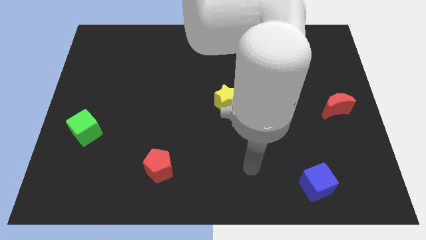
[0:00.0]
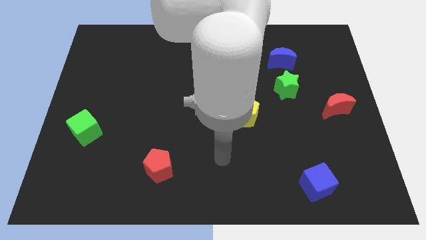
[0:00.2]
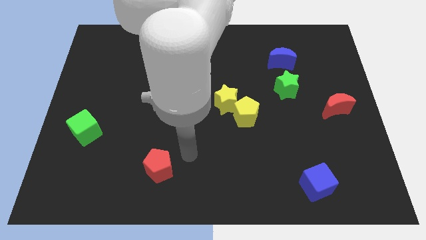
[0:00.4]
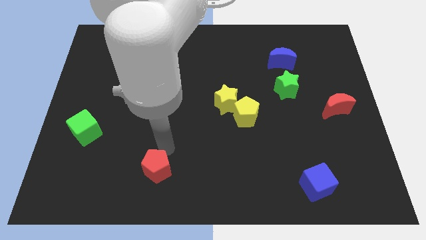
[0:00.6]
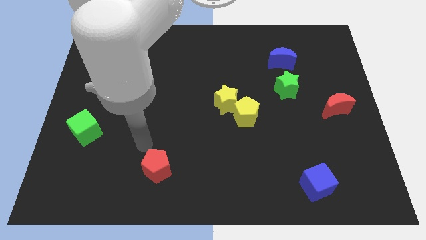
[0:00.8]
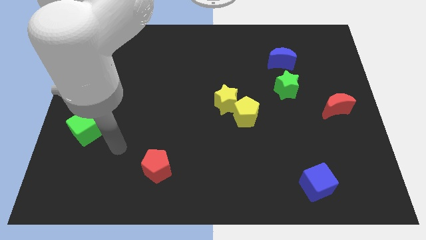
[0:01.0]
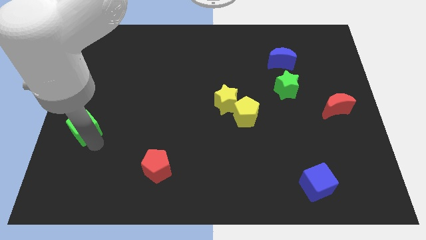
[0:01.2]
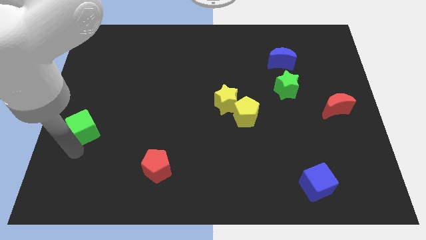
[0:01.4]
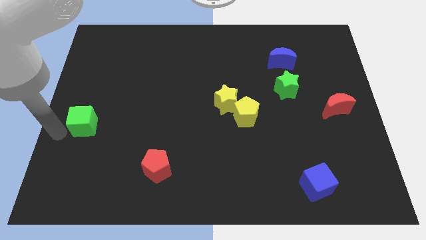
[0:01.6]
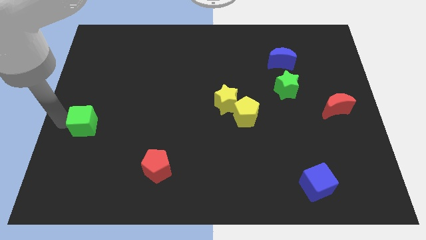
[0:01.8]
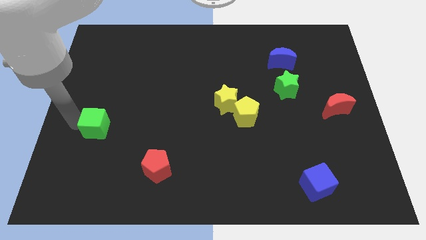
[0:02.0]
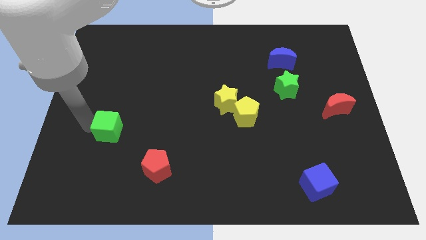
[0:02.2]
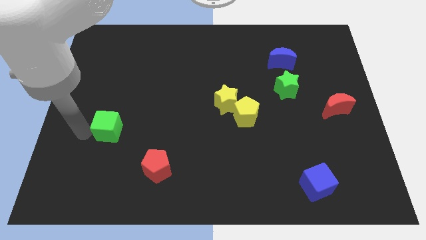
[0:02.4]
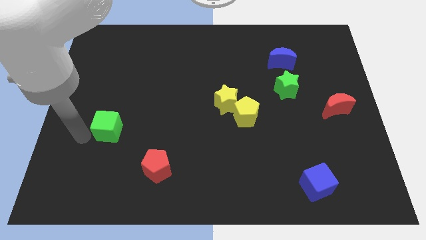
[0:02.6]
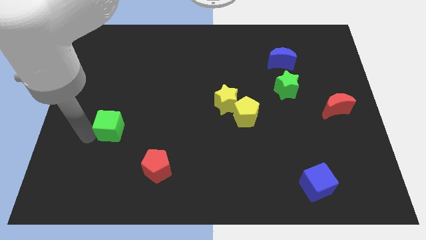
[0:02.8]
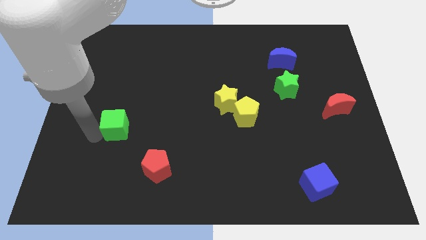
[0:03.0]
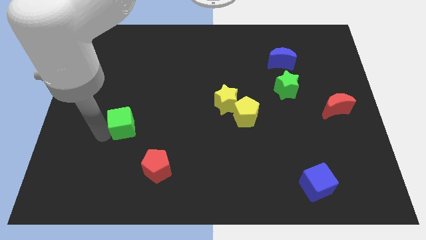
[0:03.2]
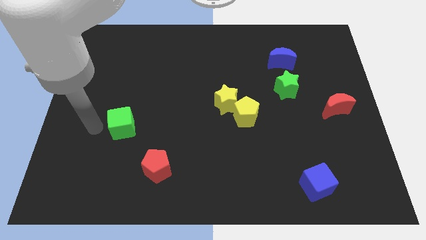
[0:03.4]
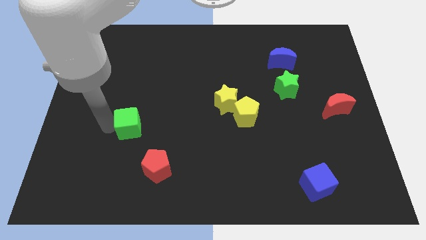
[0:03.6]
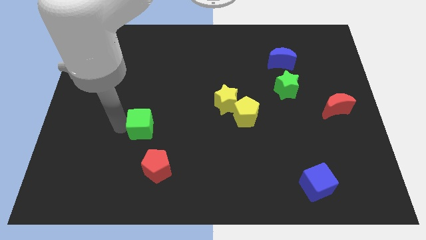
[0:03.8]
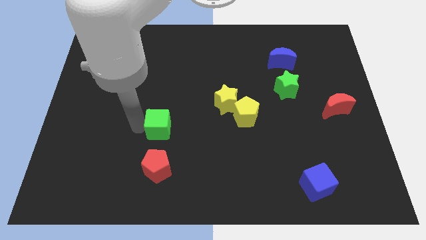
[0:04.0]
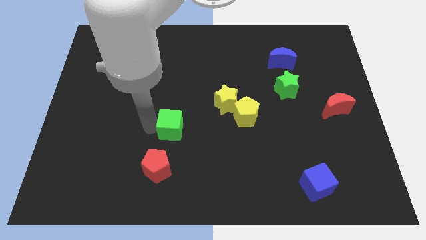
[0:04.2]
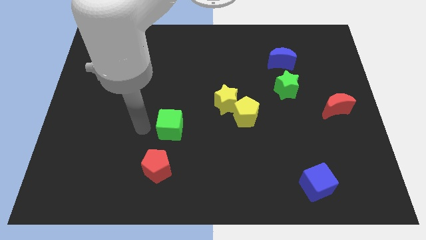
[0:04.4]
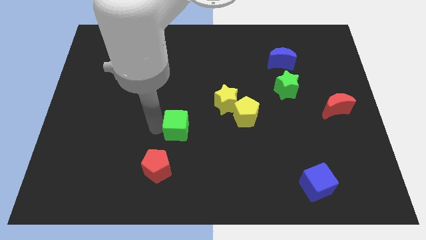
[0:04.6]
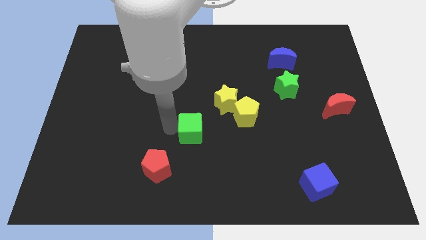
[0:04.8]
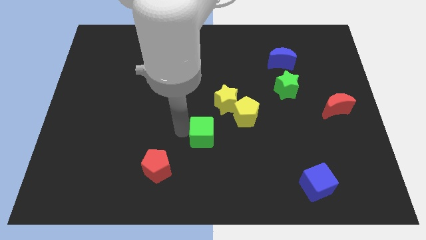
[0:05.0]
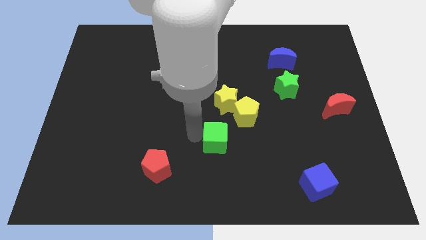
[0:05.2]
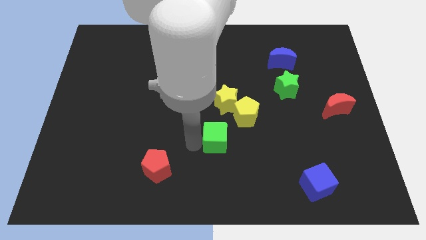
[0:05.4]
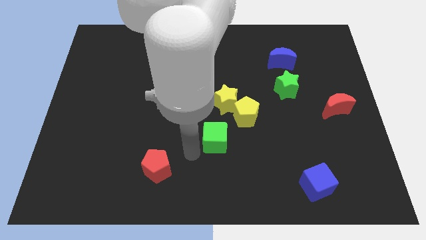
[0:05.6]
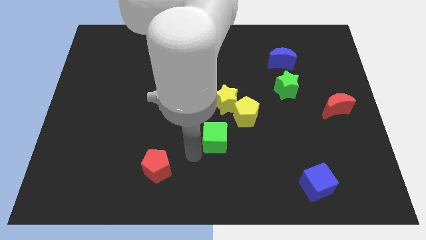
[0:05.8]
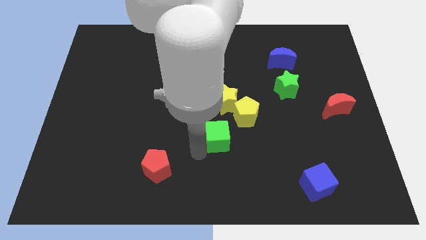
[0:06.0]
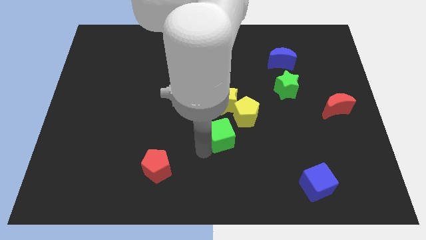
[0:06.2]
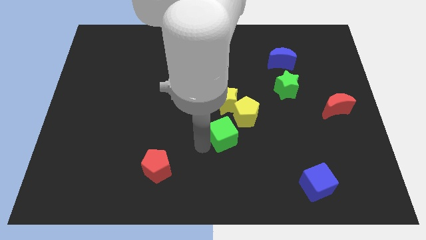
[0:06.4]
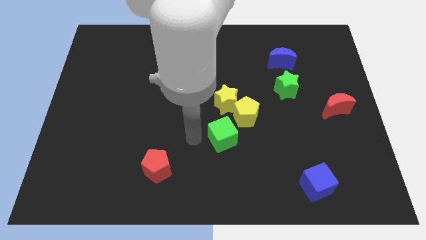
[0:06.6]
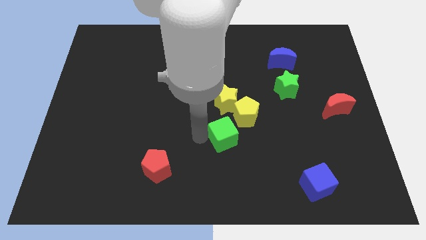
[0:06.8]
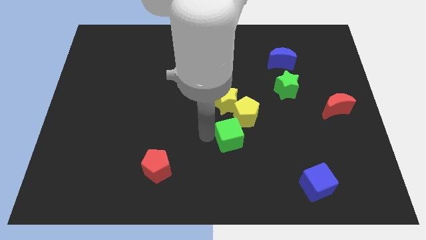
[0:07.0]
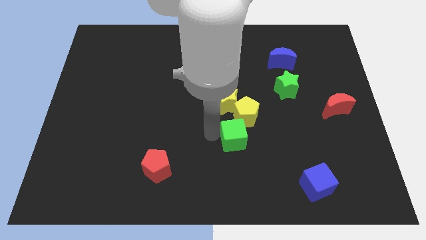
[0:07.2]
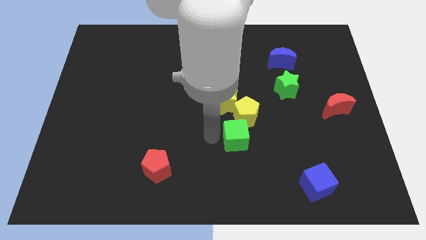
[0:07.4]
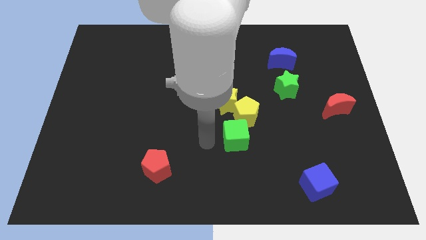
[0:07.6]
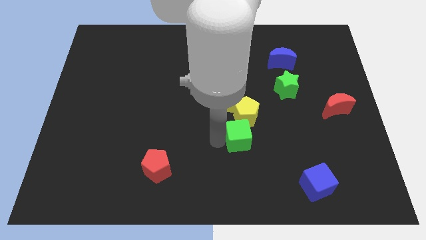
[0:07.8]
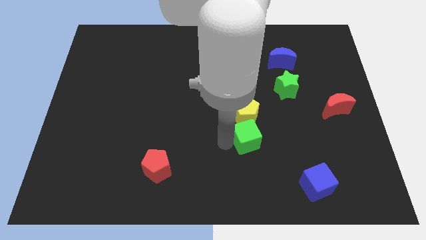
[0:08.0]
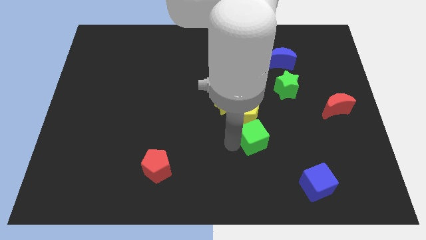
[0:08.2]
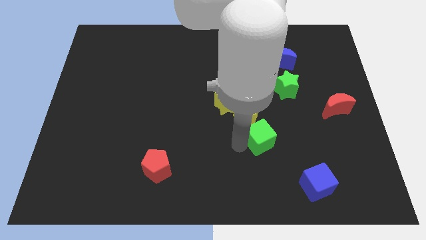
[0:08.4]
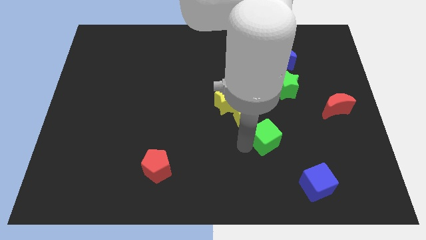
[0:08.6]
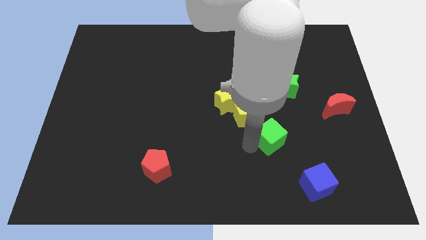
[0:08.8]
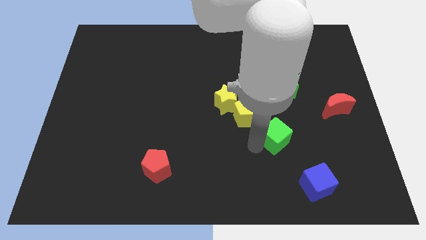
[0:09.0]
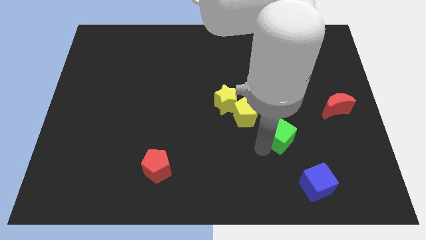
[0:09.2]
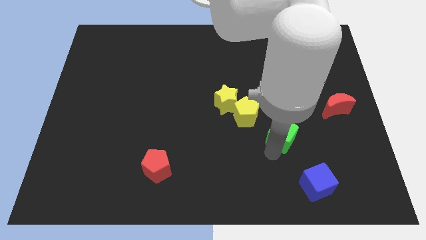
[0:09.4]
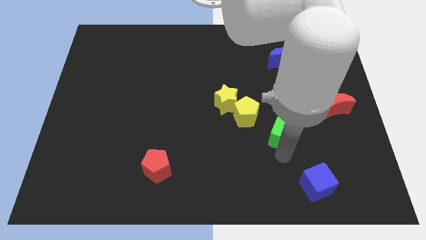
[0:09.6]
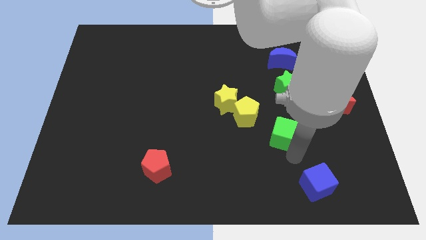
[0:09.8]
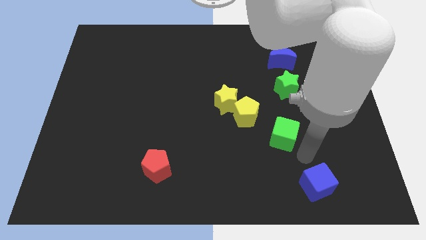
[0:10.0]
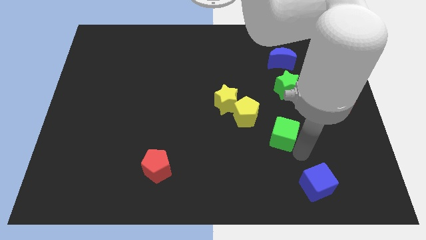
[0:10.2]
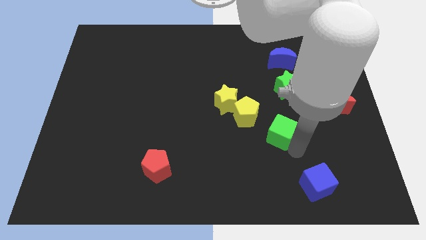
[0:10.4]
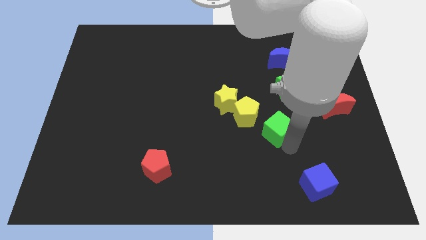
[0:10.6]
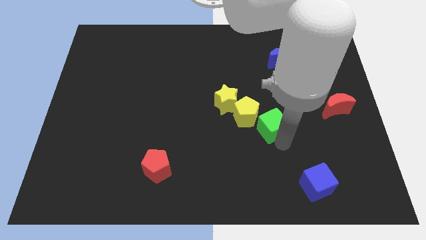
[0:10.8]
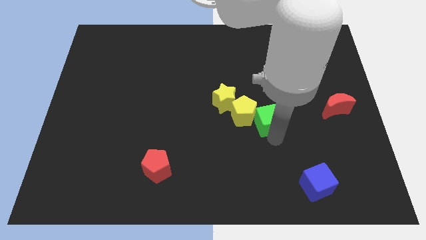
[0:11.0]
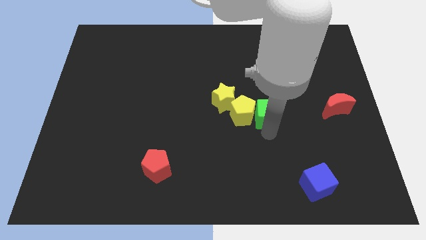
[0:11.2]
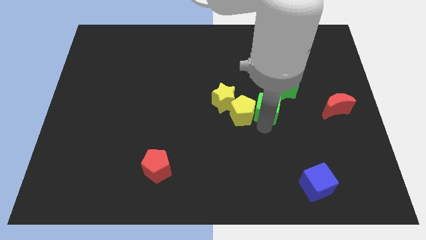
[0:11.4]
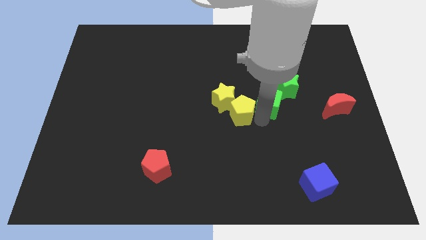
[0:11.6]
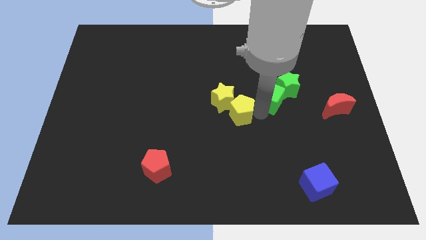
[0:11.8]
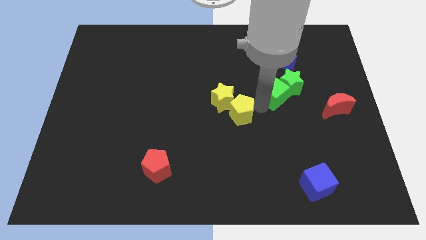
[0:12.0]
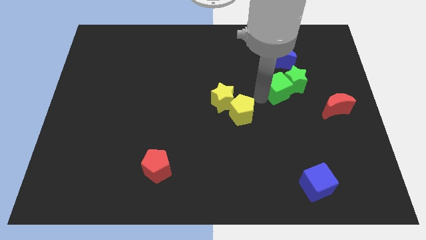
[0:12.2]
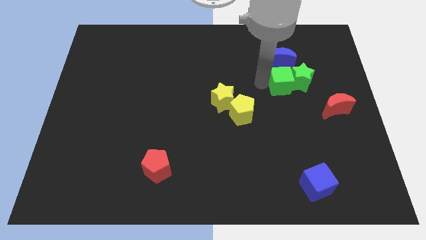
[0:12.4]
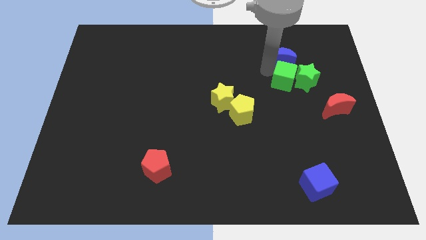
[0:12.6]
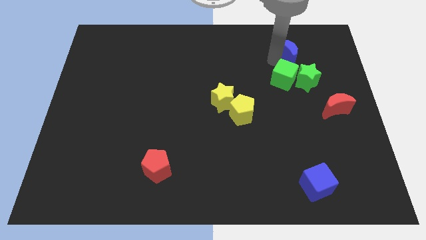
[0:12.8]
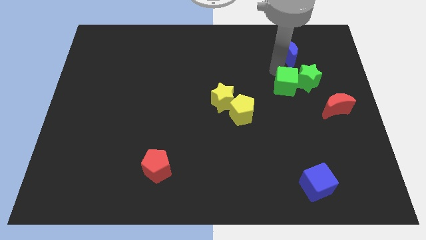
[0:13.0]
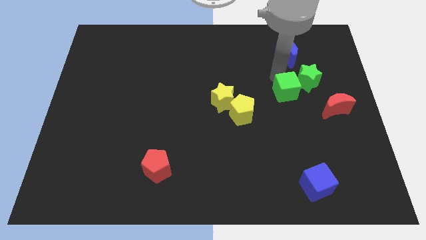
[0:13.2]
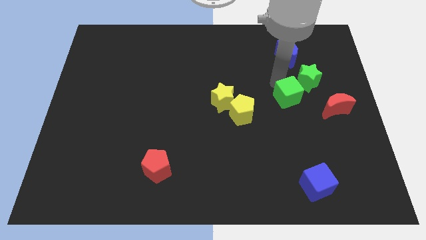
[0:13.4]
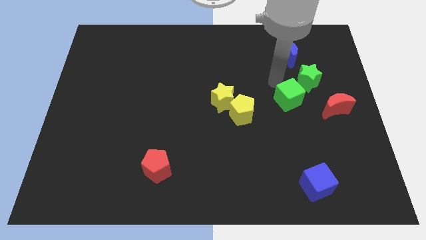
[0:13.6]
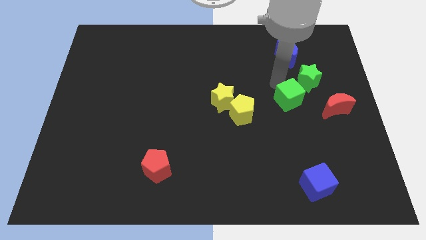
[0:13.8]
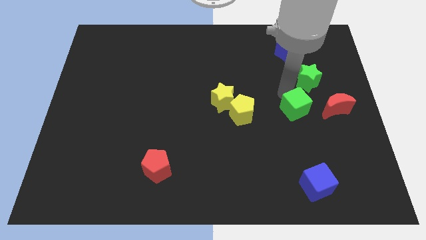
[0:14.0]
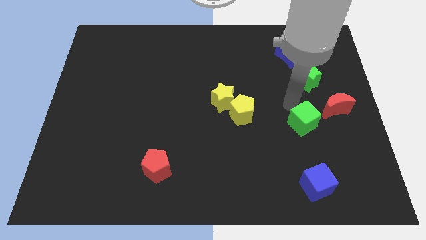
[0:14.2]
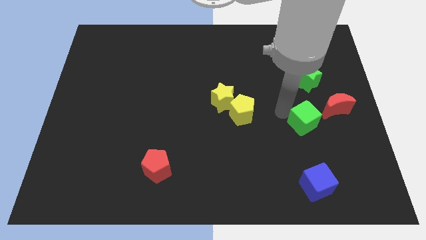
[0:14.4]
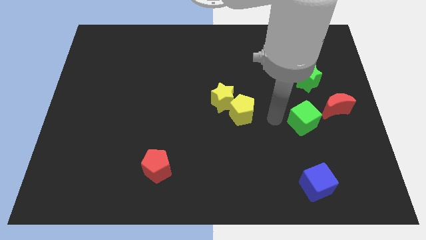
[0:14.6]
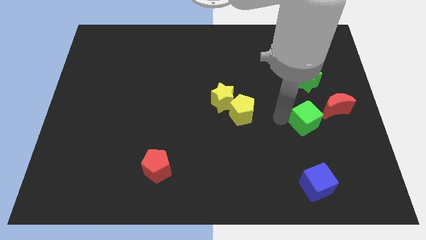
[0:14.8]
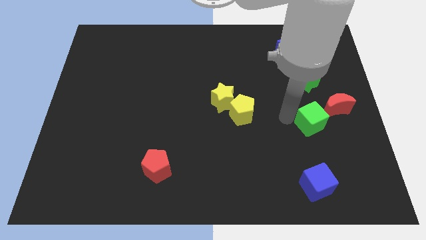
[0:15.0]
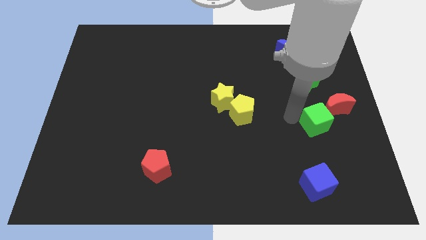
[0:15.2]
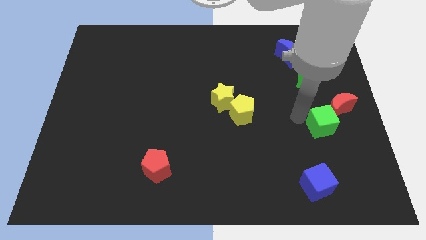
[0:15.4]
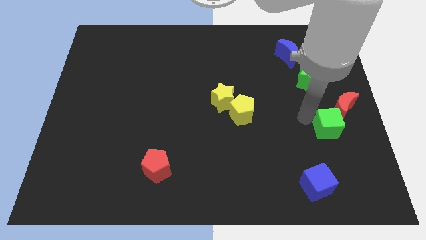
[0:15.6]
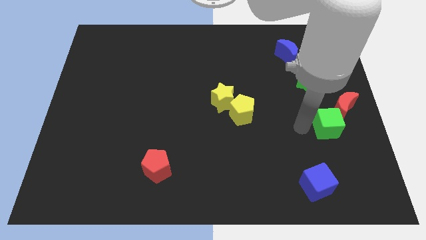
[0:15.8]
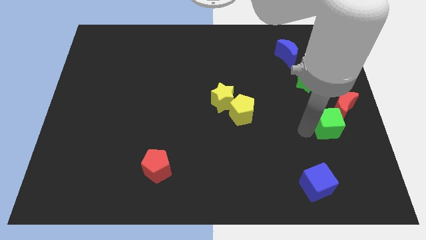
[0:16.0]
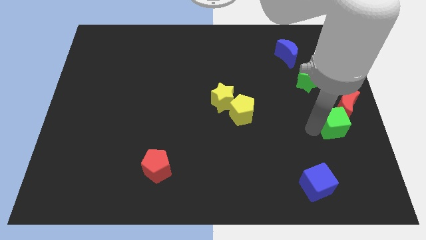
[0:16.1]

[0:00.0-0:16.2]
push the green cube to the center right
